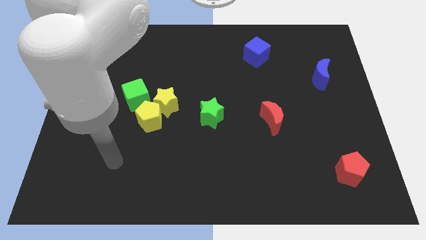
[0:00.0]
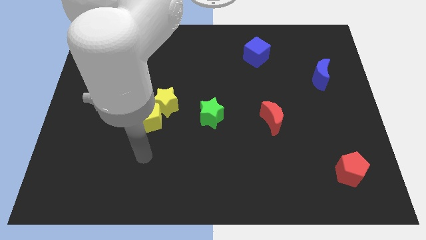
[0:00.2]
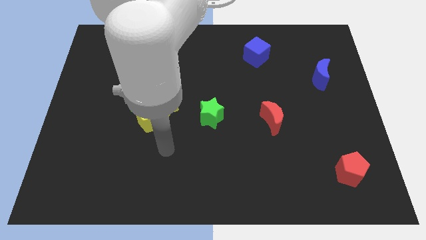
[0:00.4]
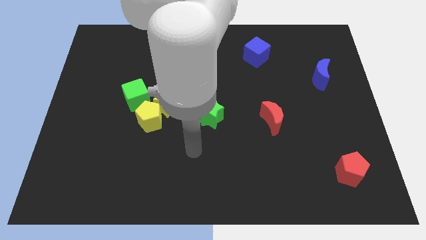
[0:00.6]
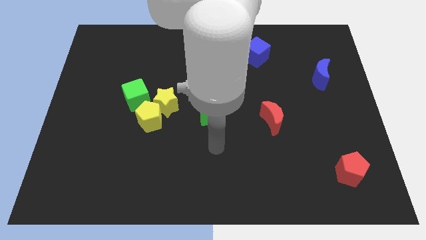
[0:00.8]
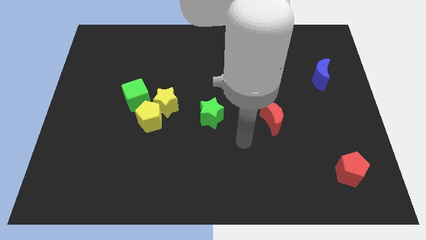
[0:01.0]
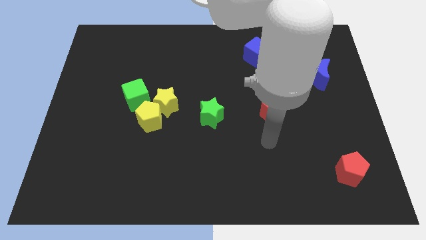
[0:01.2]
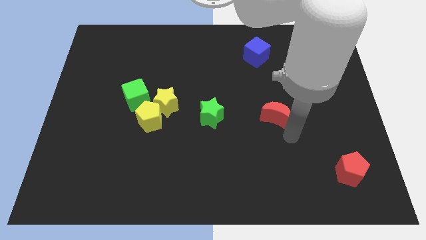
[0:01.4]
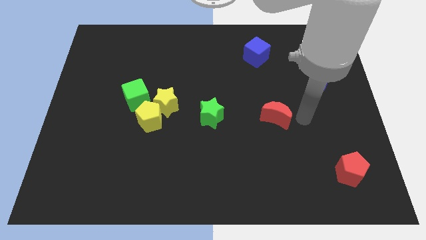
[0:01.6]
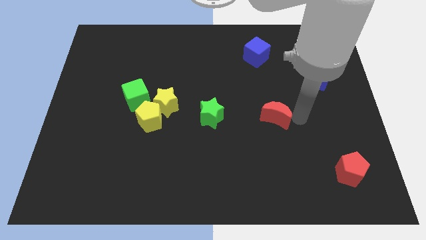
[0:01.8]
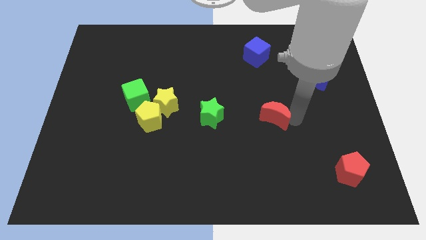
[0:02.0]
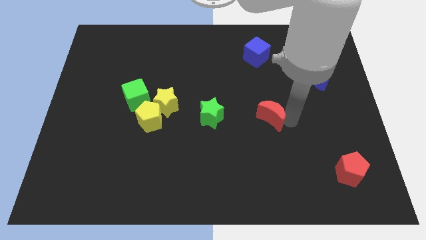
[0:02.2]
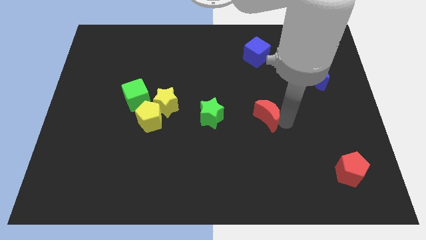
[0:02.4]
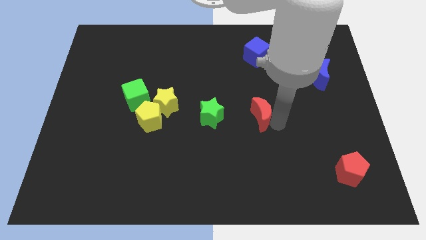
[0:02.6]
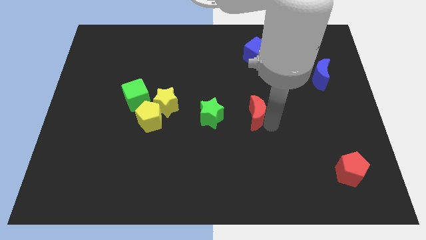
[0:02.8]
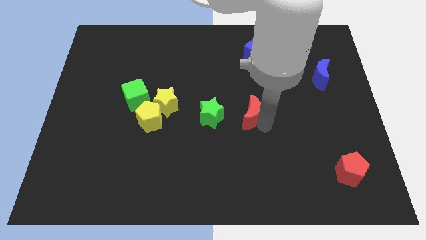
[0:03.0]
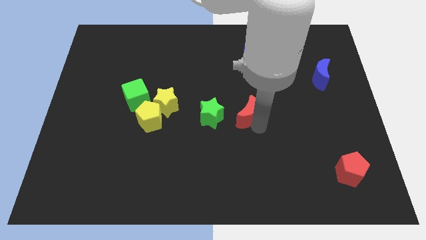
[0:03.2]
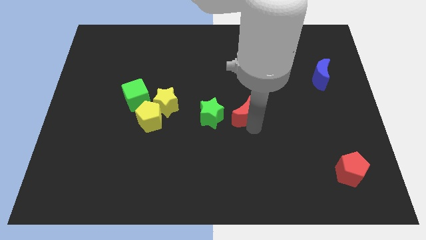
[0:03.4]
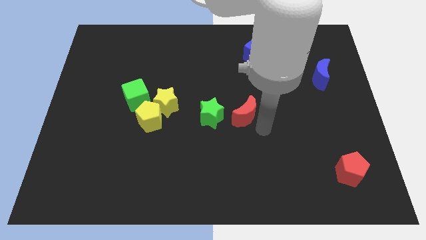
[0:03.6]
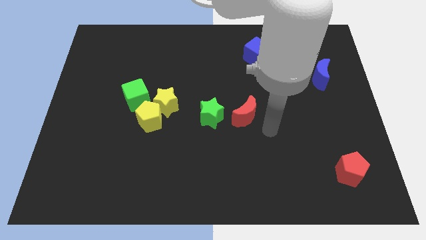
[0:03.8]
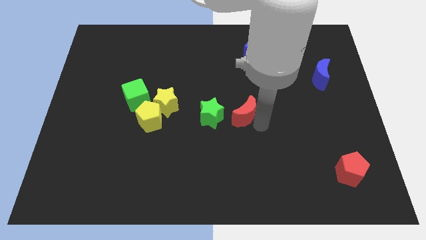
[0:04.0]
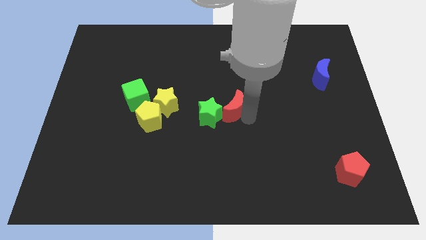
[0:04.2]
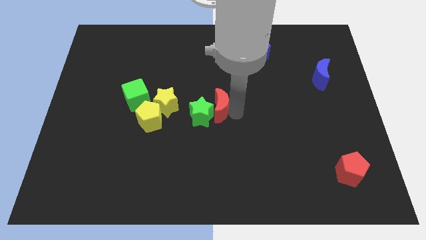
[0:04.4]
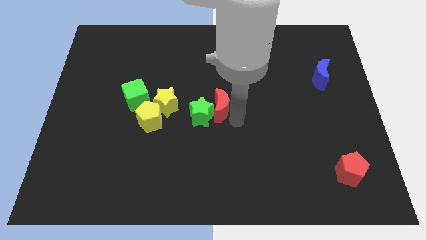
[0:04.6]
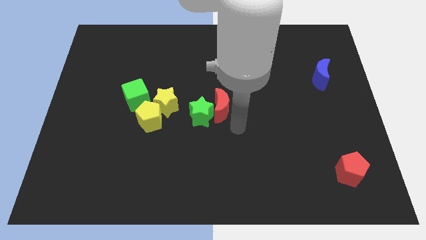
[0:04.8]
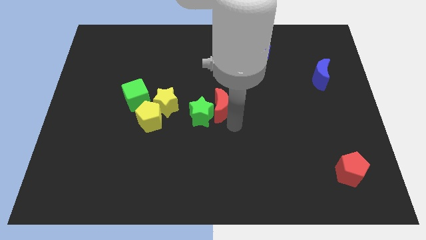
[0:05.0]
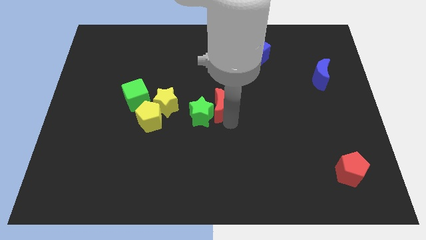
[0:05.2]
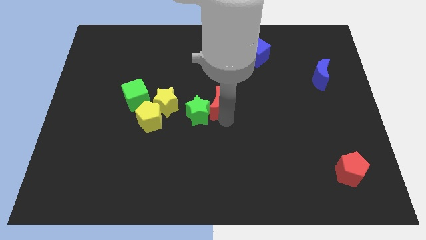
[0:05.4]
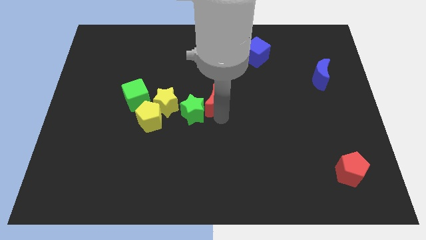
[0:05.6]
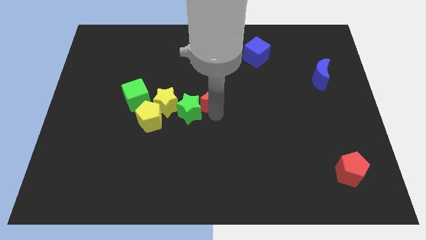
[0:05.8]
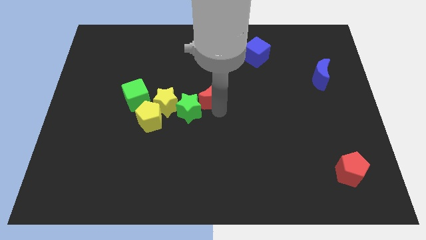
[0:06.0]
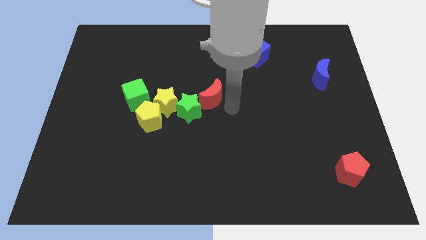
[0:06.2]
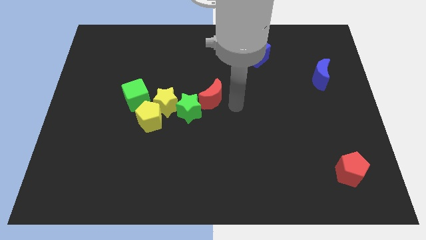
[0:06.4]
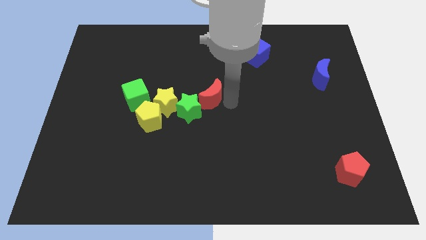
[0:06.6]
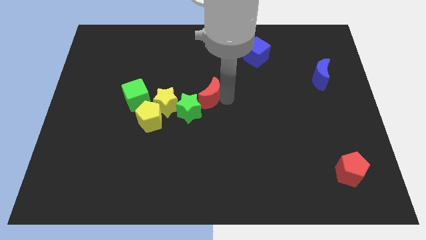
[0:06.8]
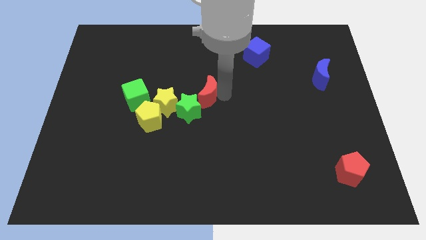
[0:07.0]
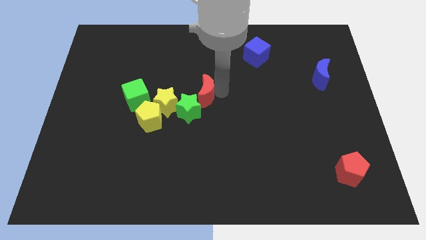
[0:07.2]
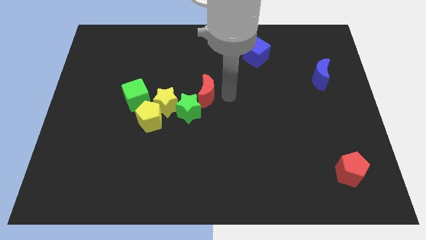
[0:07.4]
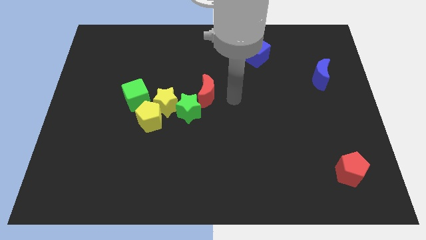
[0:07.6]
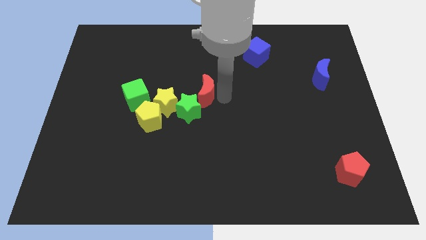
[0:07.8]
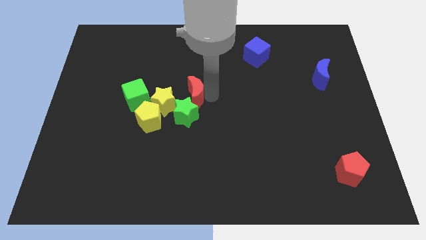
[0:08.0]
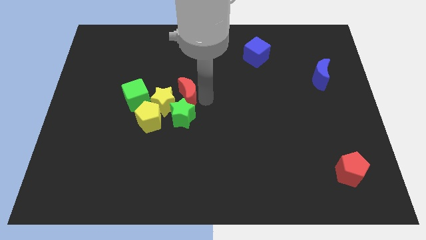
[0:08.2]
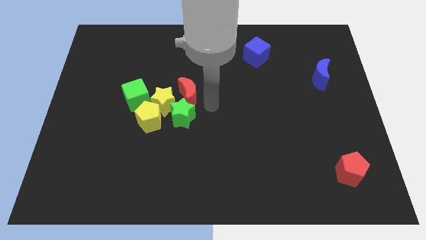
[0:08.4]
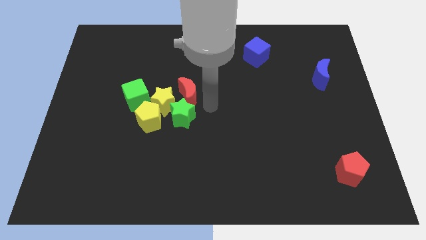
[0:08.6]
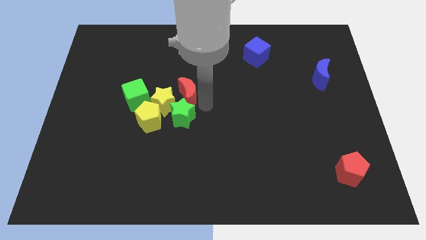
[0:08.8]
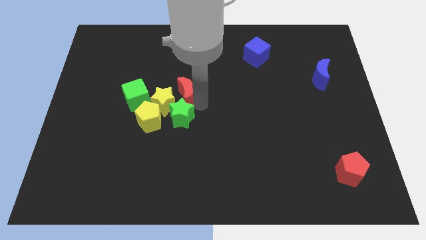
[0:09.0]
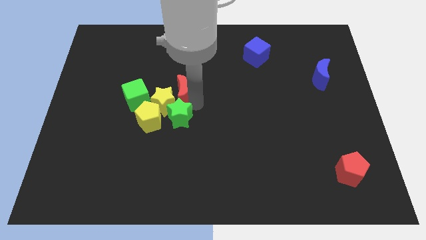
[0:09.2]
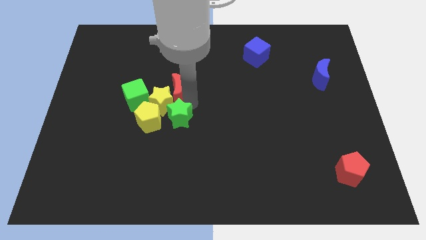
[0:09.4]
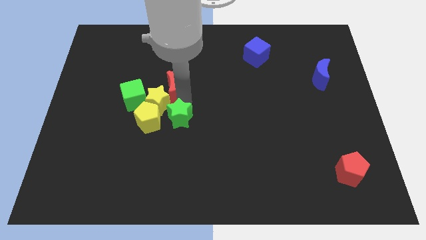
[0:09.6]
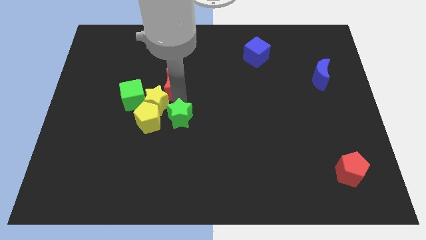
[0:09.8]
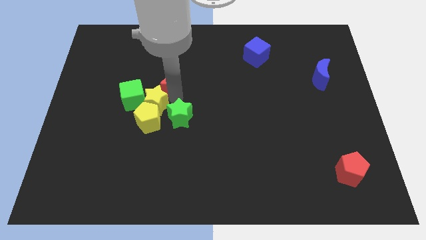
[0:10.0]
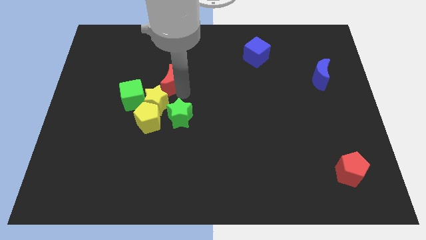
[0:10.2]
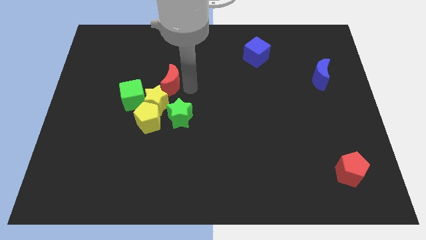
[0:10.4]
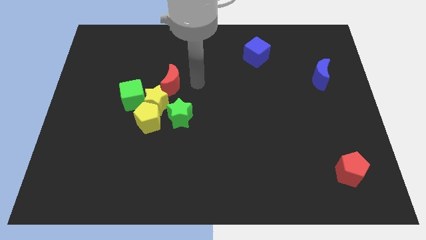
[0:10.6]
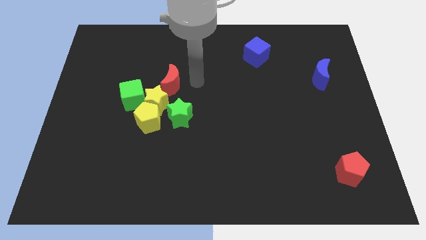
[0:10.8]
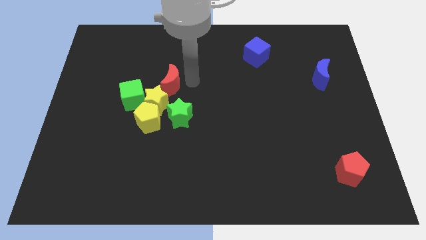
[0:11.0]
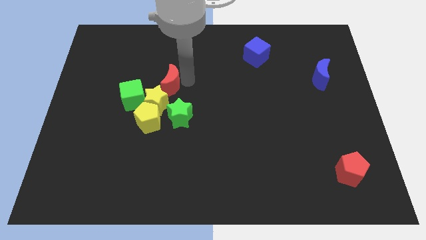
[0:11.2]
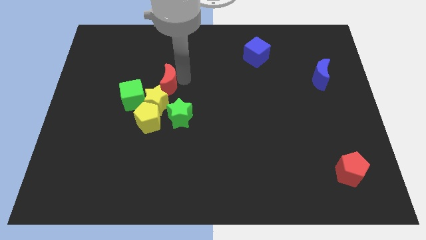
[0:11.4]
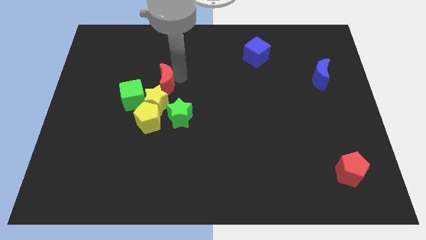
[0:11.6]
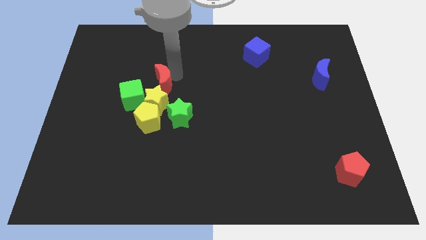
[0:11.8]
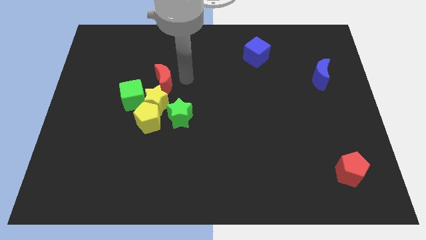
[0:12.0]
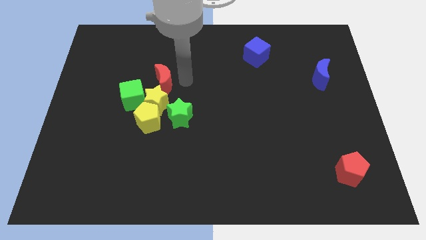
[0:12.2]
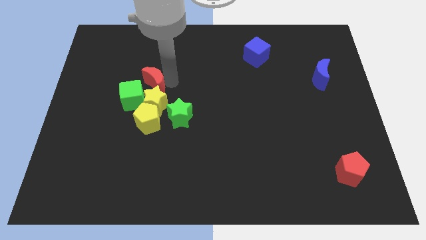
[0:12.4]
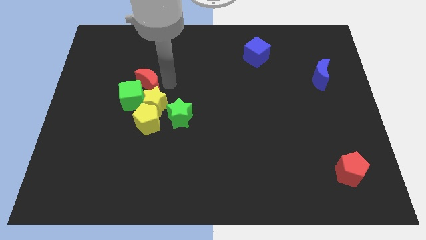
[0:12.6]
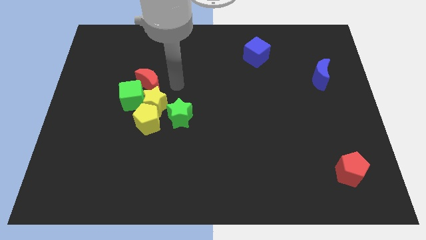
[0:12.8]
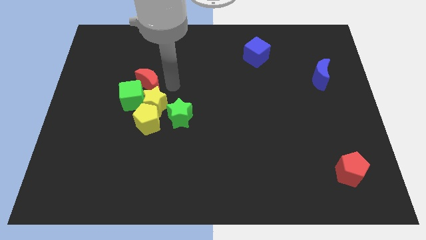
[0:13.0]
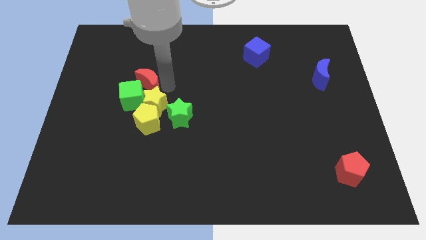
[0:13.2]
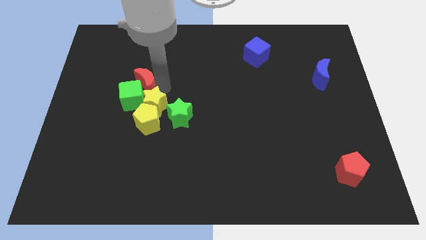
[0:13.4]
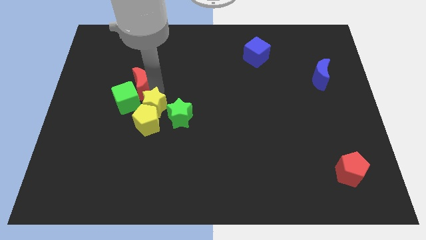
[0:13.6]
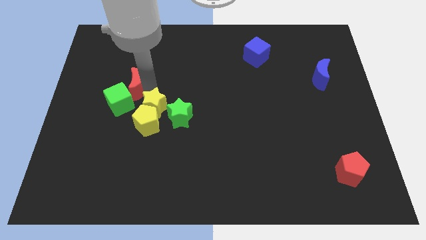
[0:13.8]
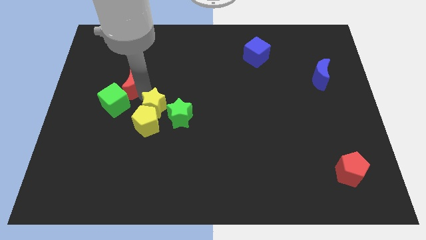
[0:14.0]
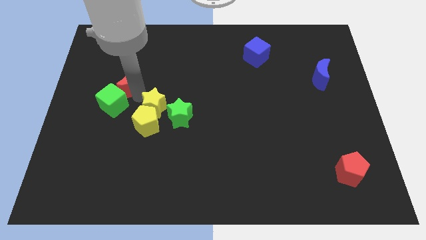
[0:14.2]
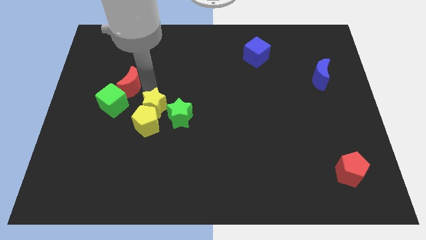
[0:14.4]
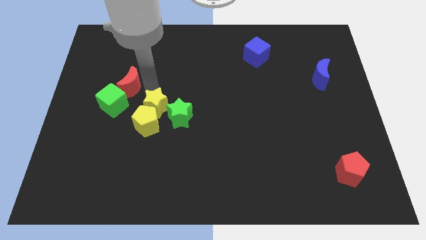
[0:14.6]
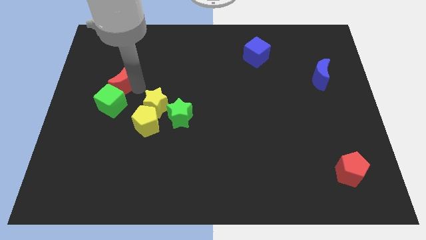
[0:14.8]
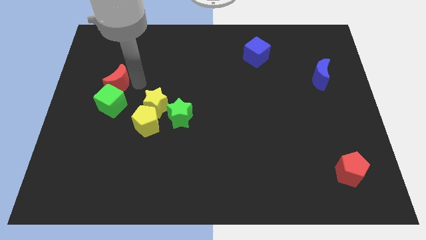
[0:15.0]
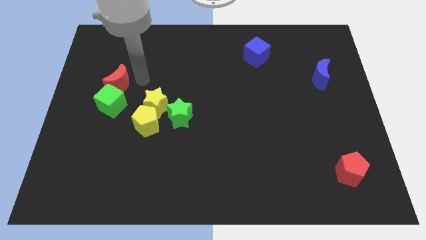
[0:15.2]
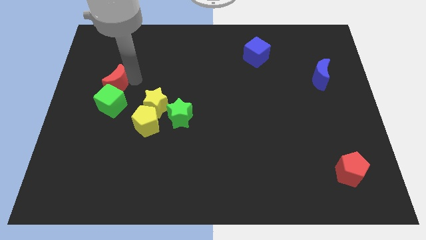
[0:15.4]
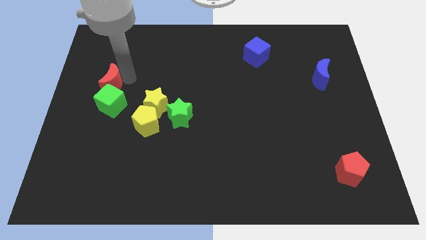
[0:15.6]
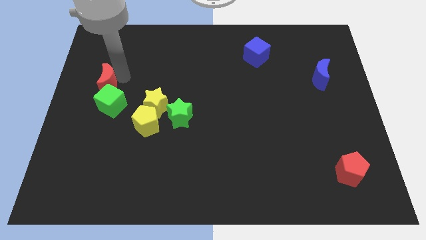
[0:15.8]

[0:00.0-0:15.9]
slide the red moon to the left side

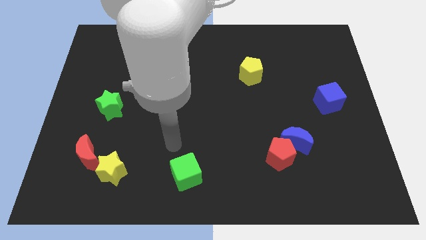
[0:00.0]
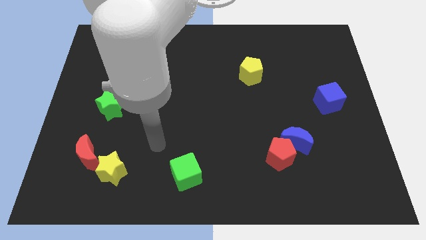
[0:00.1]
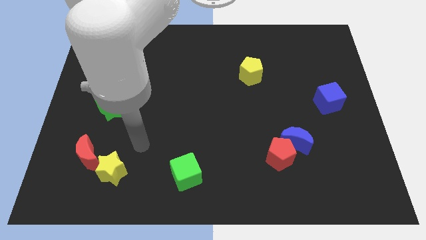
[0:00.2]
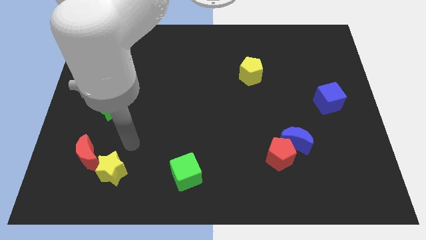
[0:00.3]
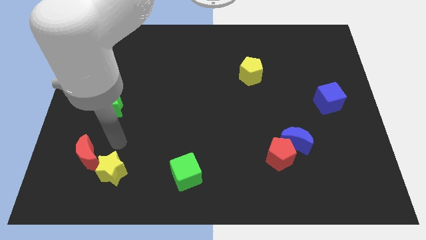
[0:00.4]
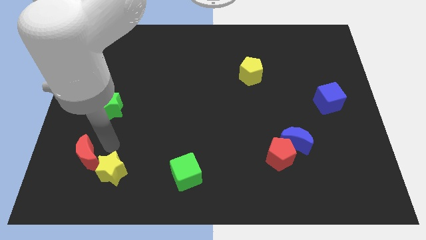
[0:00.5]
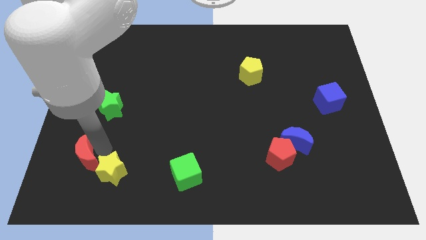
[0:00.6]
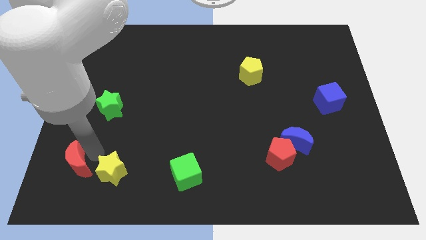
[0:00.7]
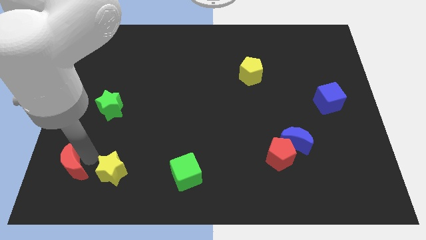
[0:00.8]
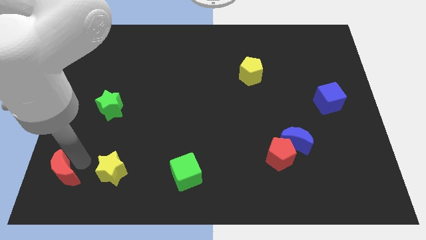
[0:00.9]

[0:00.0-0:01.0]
slide the red moon to the bottom left
